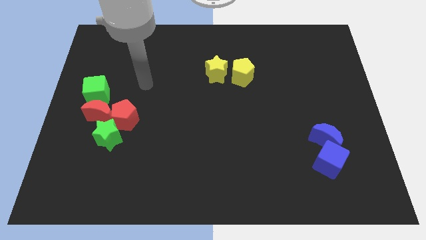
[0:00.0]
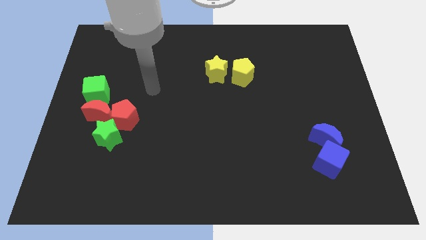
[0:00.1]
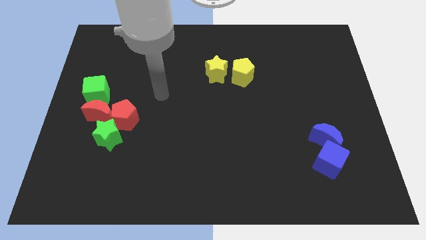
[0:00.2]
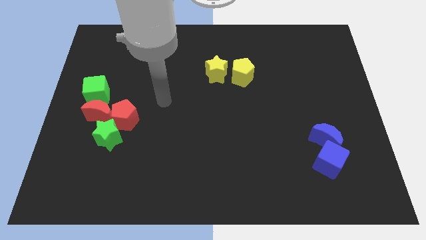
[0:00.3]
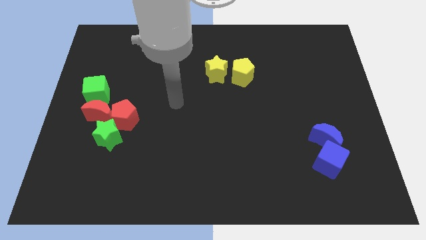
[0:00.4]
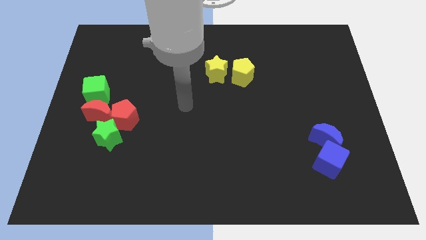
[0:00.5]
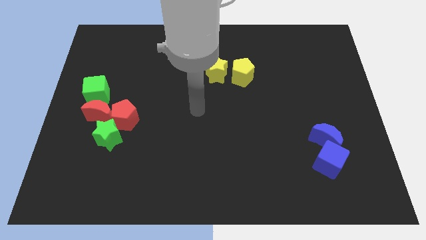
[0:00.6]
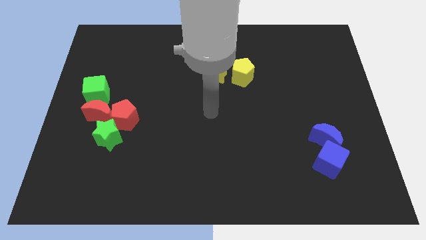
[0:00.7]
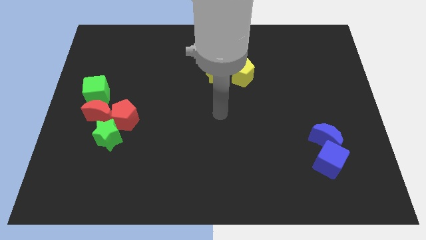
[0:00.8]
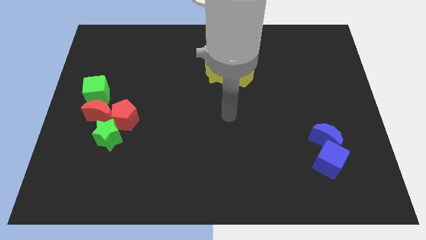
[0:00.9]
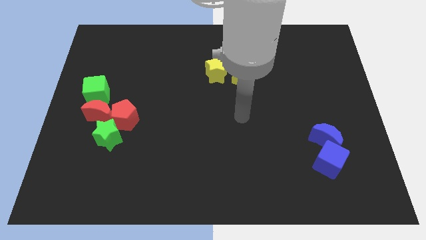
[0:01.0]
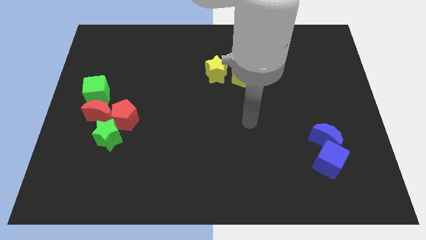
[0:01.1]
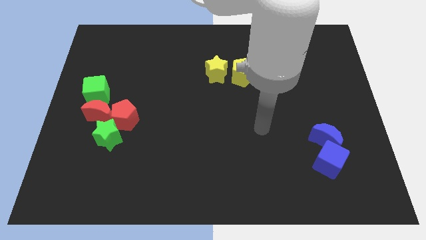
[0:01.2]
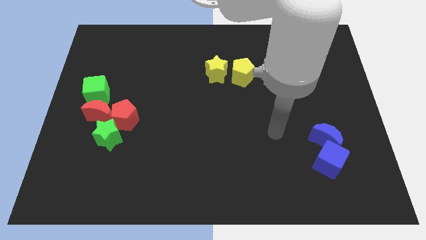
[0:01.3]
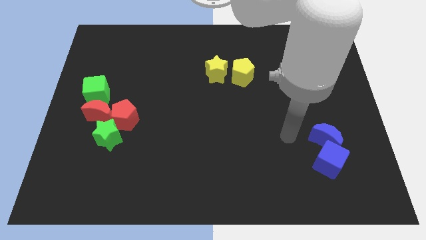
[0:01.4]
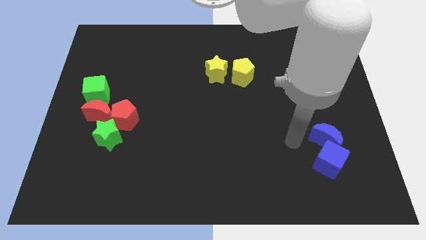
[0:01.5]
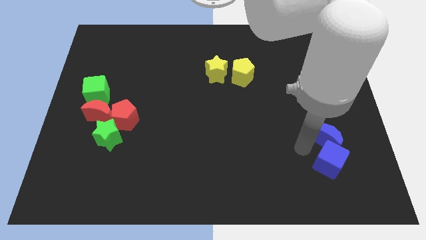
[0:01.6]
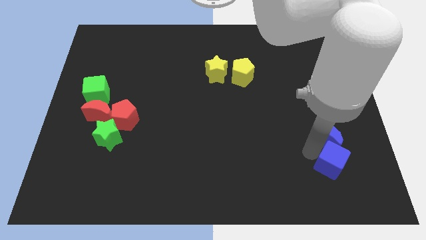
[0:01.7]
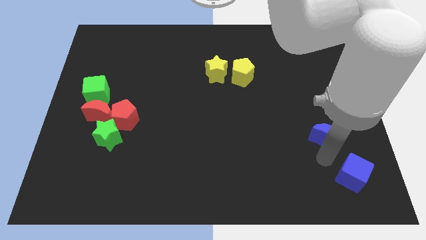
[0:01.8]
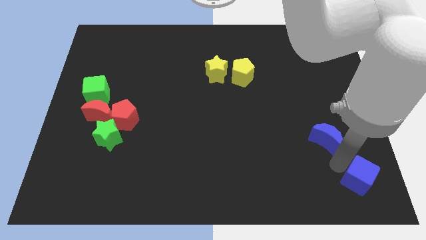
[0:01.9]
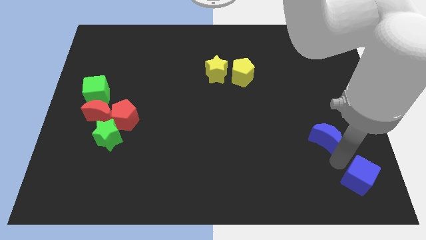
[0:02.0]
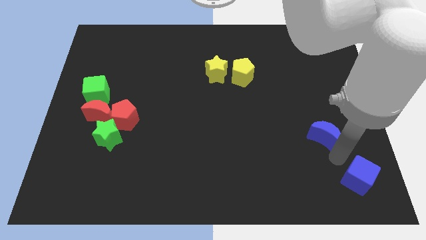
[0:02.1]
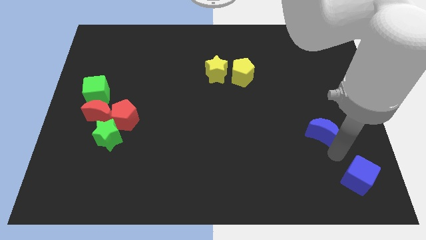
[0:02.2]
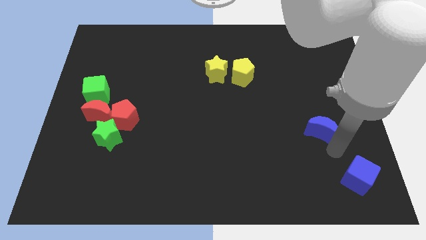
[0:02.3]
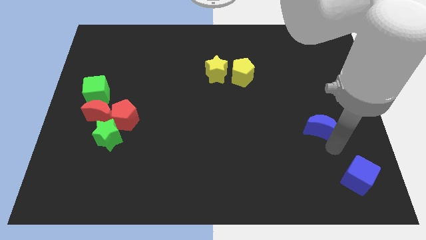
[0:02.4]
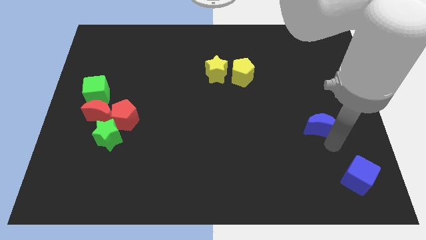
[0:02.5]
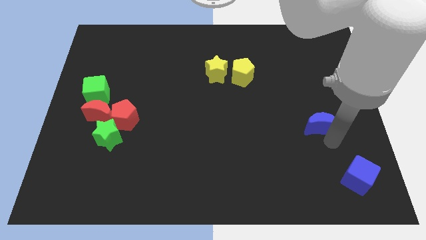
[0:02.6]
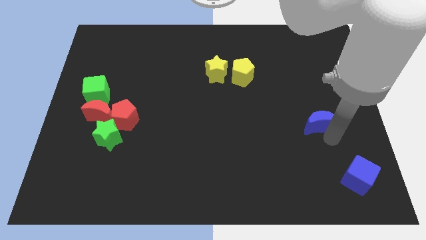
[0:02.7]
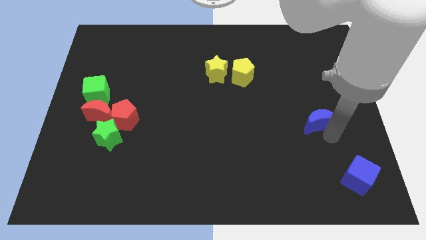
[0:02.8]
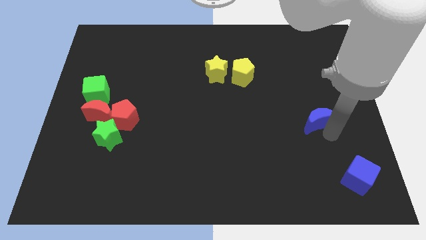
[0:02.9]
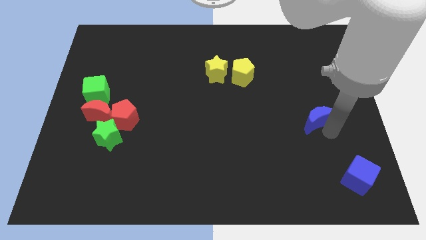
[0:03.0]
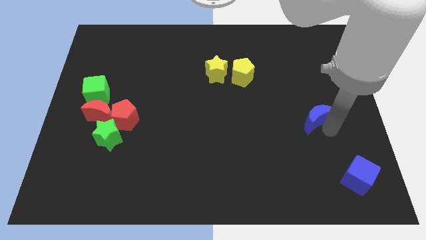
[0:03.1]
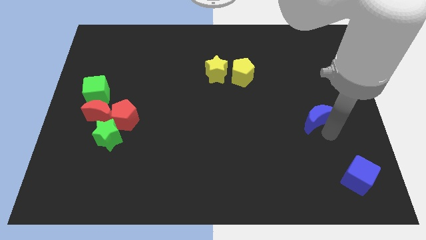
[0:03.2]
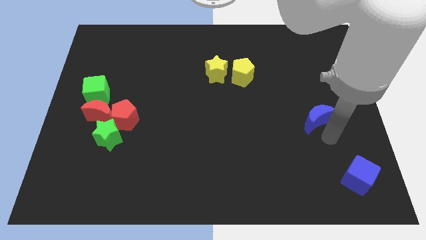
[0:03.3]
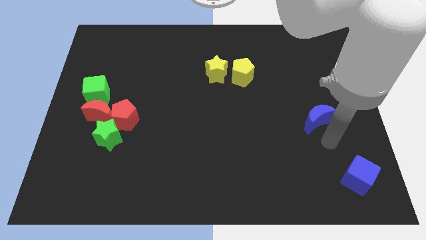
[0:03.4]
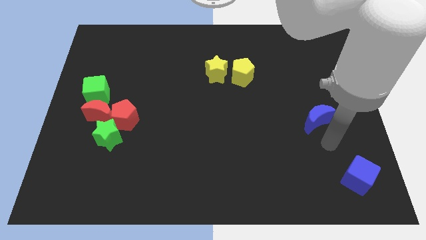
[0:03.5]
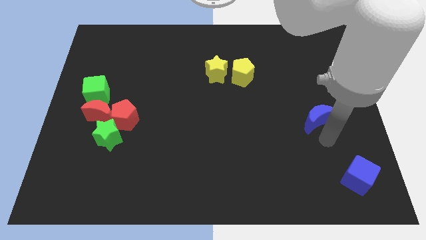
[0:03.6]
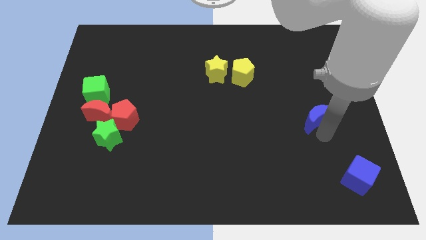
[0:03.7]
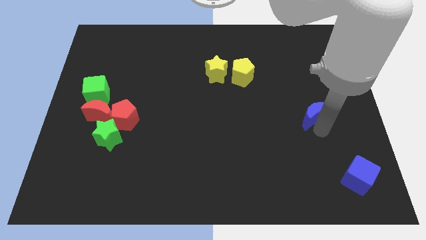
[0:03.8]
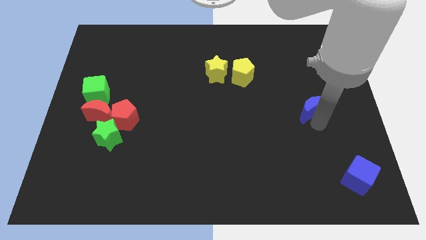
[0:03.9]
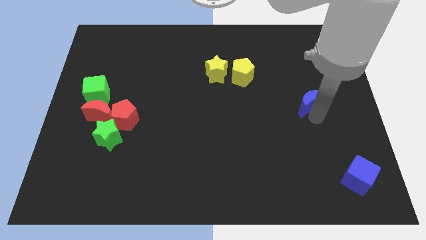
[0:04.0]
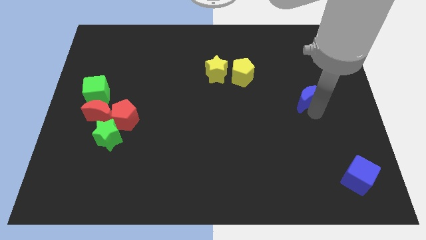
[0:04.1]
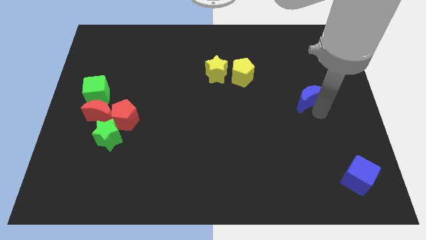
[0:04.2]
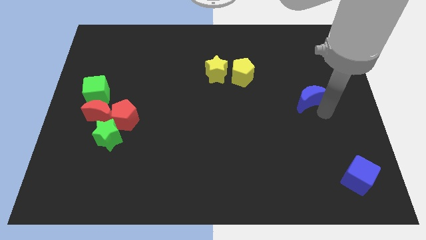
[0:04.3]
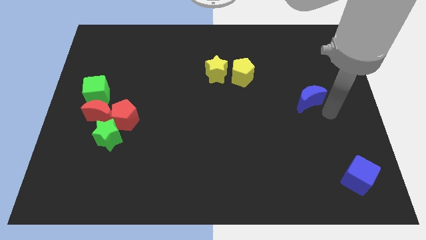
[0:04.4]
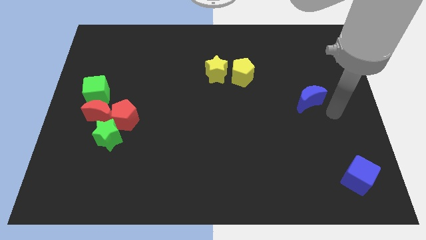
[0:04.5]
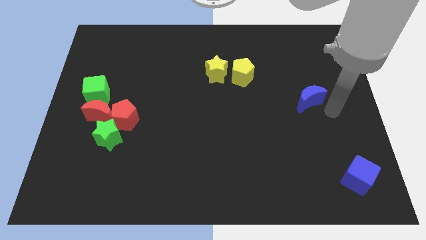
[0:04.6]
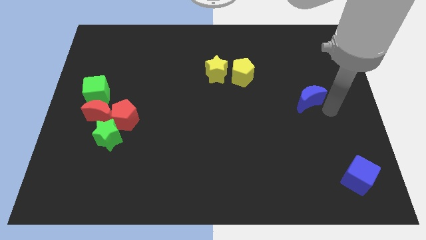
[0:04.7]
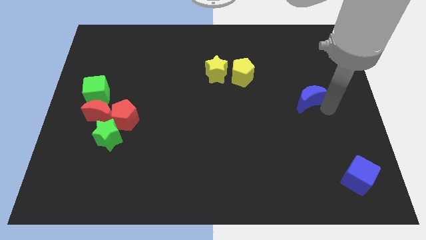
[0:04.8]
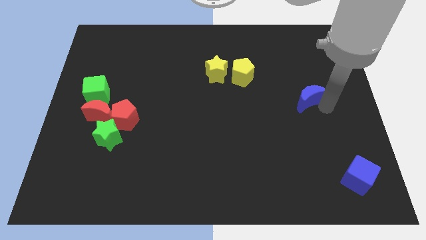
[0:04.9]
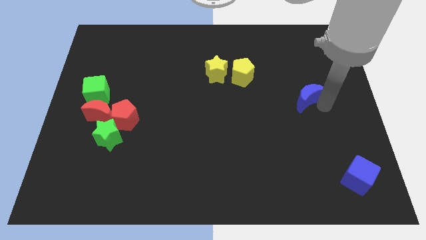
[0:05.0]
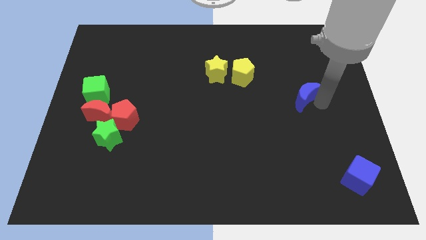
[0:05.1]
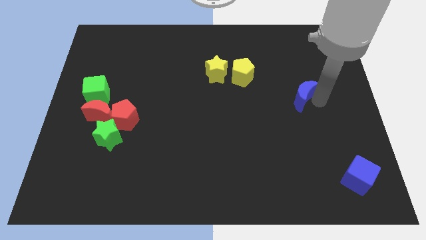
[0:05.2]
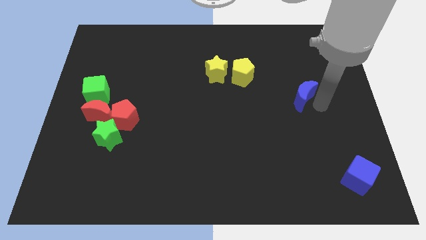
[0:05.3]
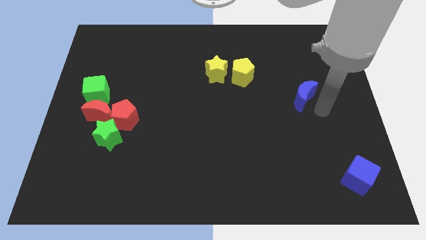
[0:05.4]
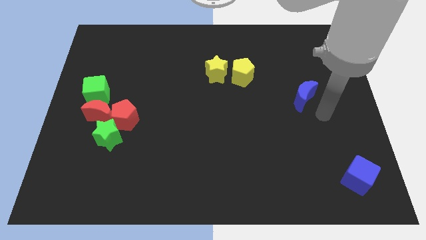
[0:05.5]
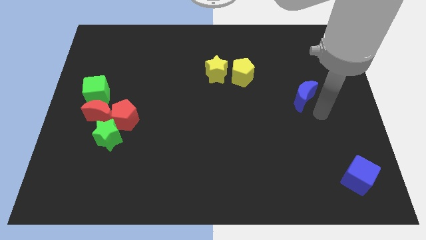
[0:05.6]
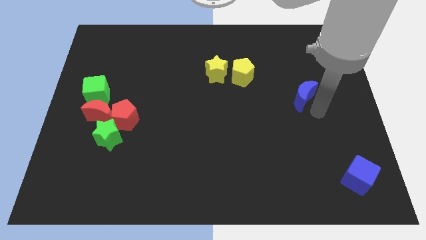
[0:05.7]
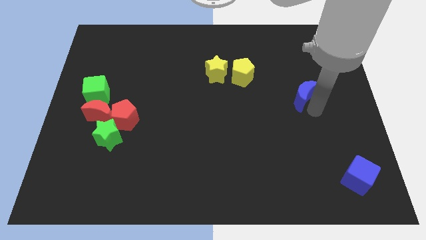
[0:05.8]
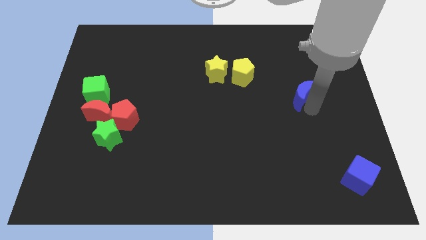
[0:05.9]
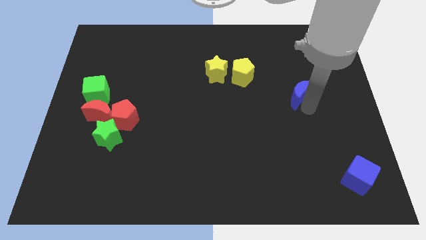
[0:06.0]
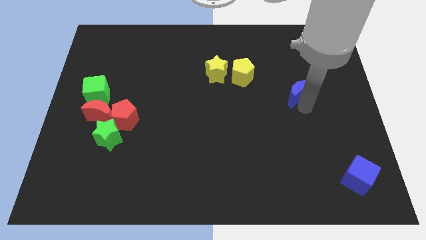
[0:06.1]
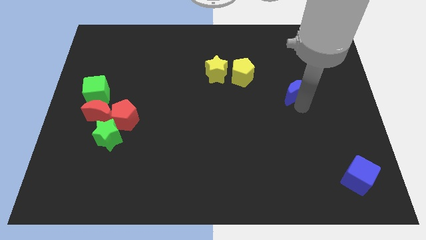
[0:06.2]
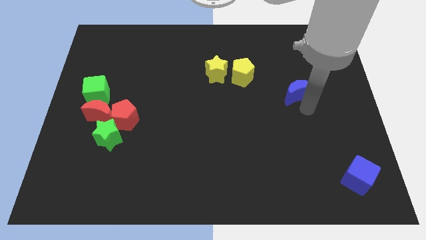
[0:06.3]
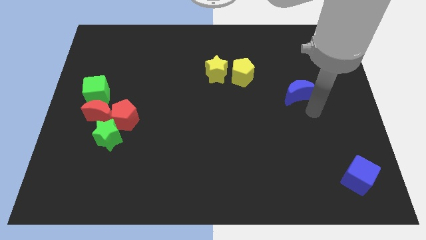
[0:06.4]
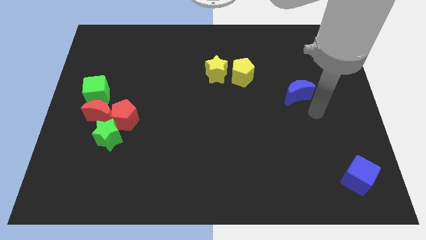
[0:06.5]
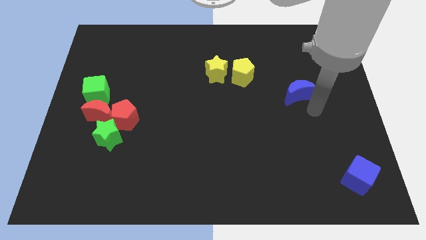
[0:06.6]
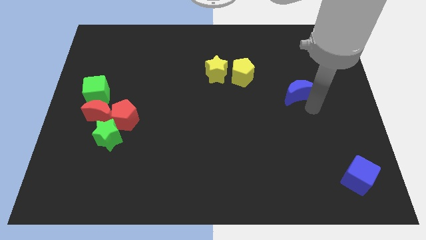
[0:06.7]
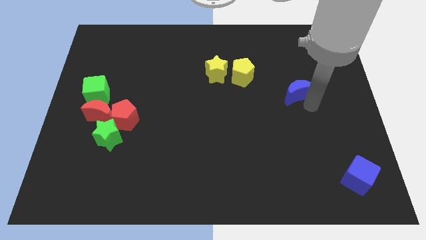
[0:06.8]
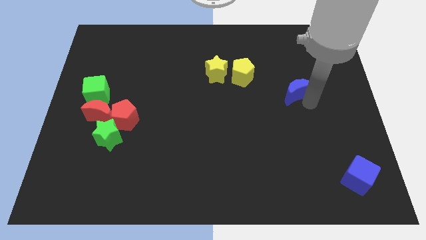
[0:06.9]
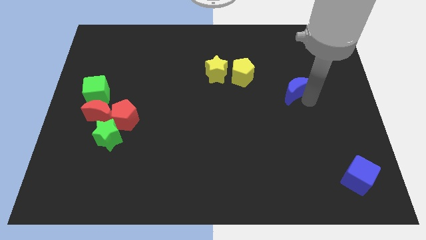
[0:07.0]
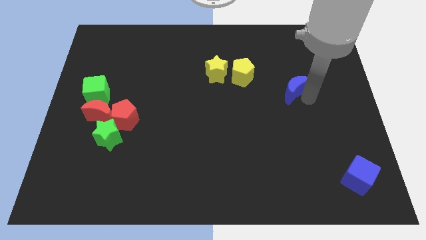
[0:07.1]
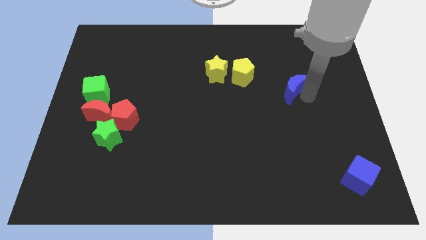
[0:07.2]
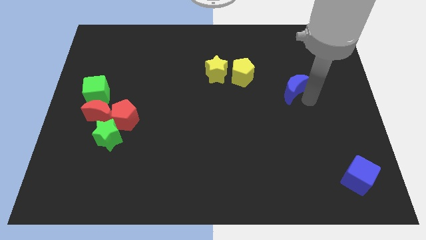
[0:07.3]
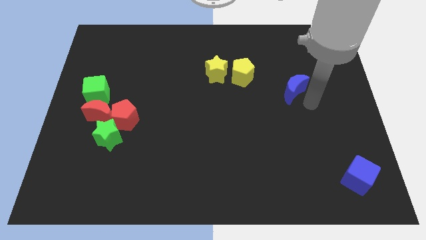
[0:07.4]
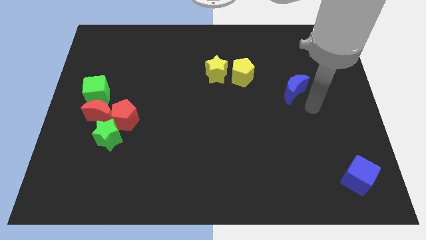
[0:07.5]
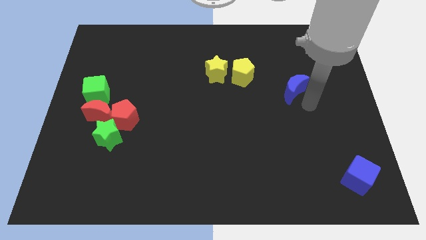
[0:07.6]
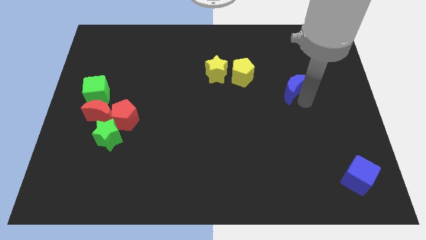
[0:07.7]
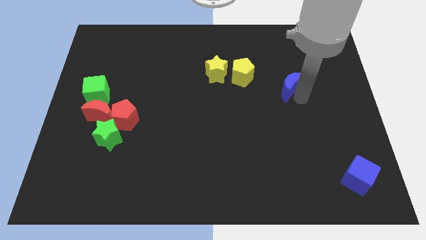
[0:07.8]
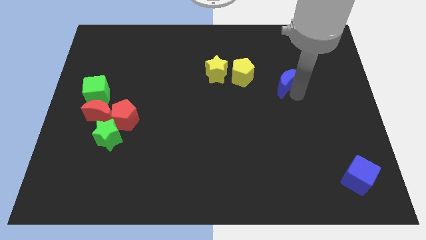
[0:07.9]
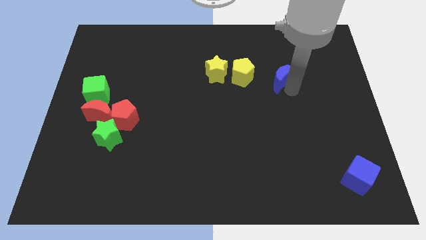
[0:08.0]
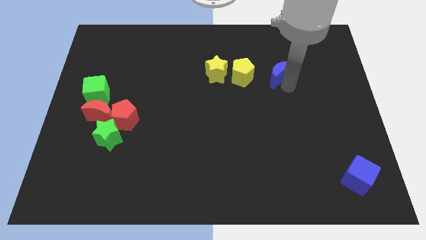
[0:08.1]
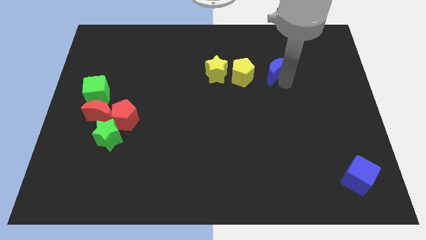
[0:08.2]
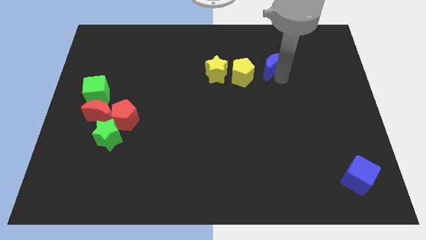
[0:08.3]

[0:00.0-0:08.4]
slide the blue moon diagonally up and to the right of the yellow pentagon

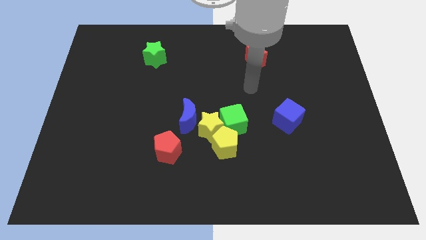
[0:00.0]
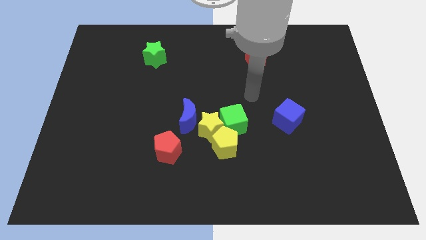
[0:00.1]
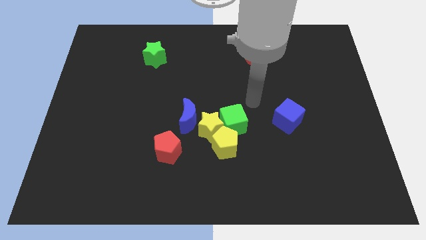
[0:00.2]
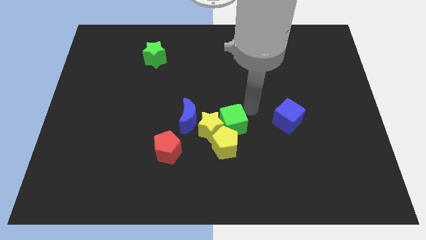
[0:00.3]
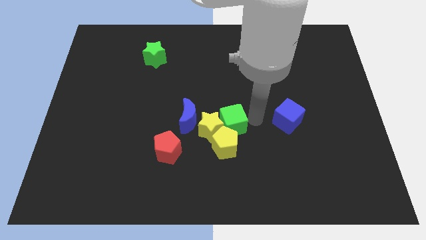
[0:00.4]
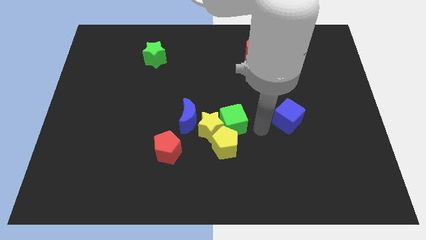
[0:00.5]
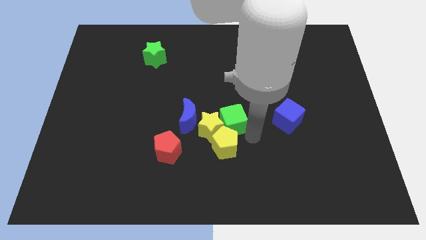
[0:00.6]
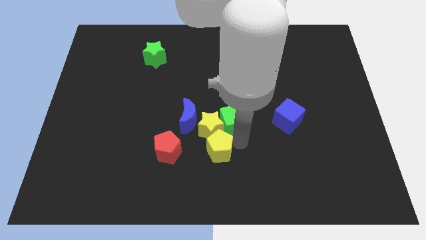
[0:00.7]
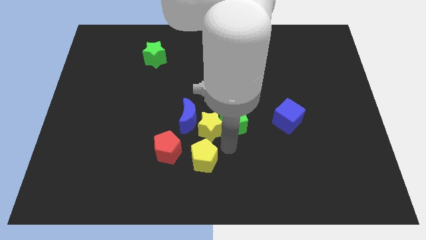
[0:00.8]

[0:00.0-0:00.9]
slide the yellow star to the top right side of the yellow pentagon
